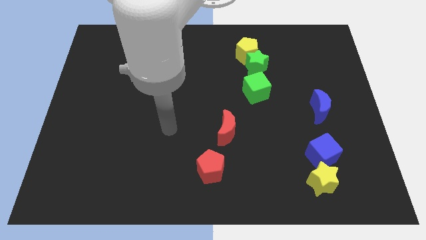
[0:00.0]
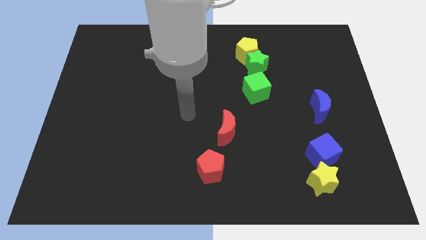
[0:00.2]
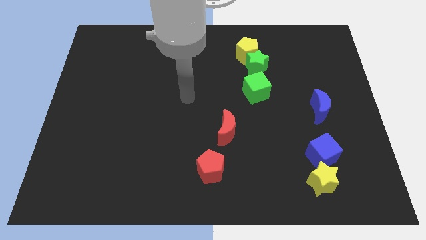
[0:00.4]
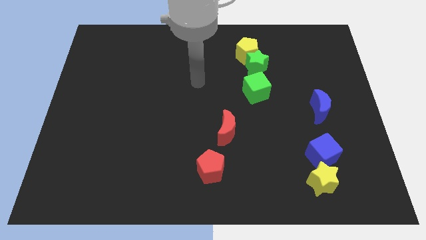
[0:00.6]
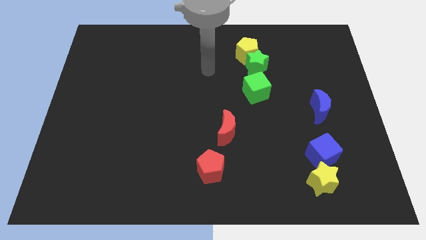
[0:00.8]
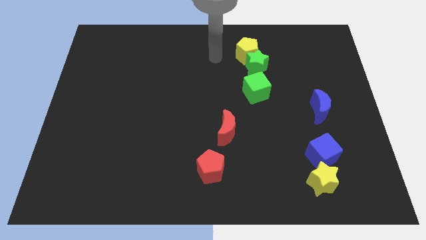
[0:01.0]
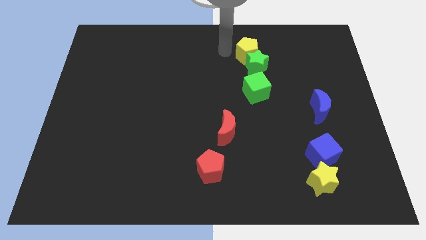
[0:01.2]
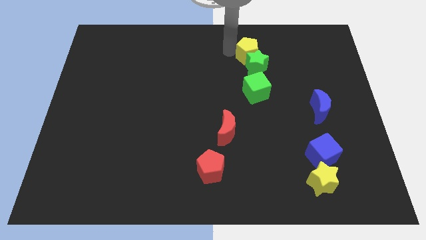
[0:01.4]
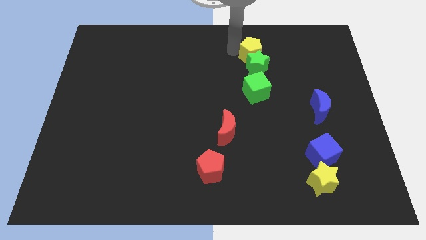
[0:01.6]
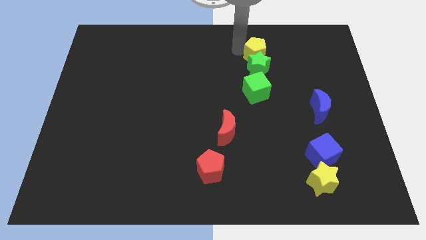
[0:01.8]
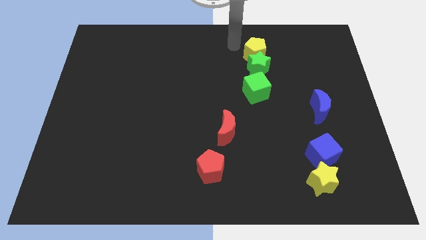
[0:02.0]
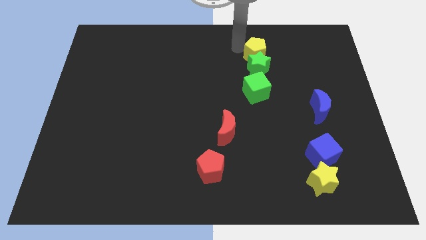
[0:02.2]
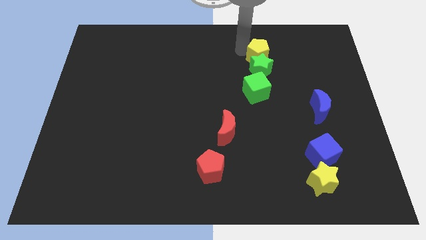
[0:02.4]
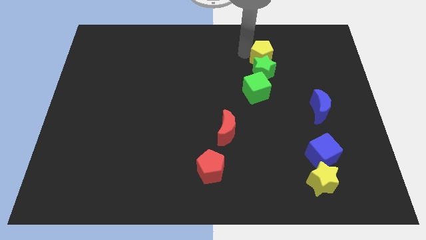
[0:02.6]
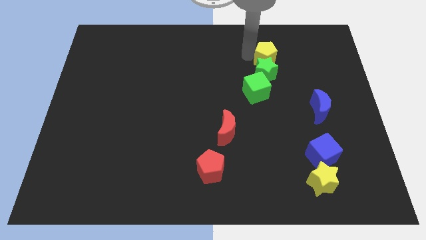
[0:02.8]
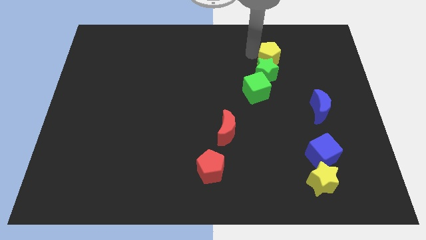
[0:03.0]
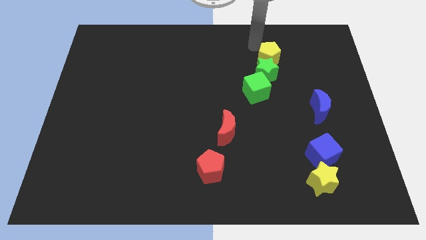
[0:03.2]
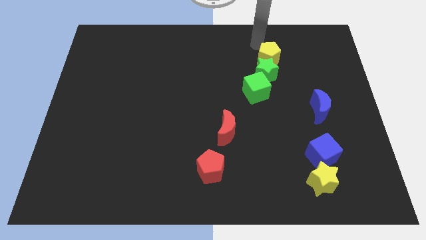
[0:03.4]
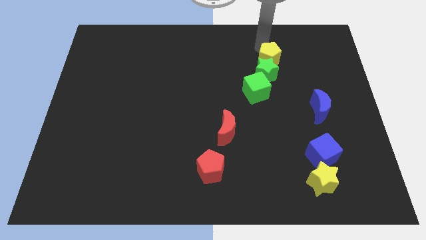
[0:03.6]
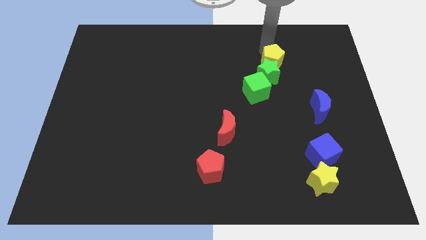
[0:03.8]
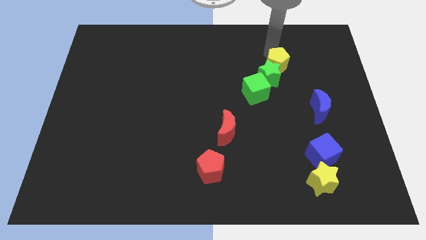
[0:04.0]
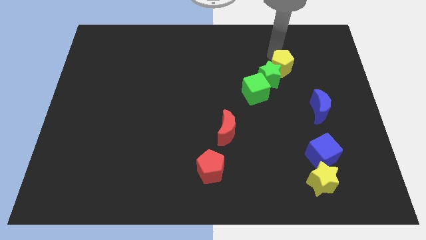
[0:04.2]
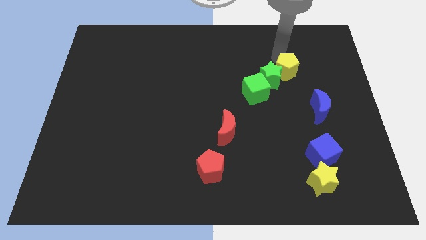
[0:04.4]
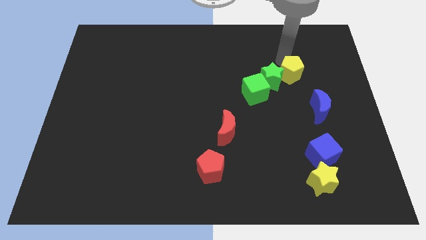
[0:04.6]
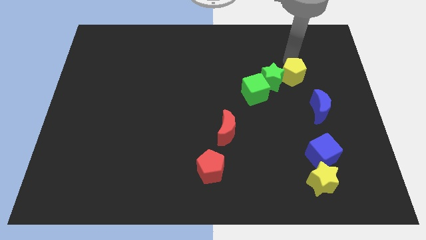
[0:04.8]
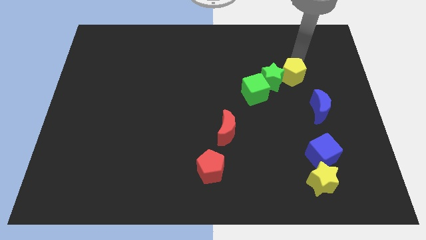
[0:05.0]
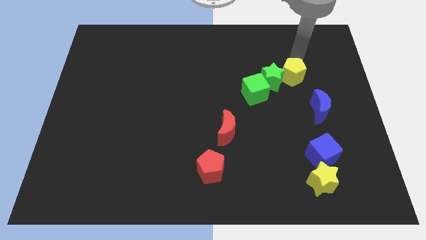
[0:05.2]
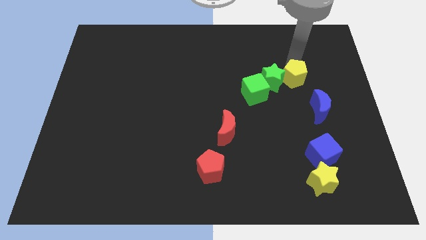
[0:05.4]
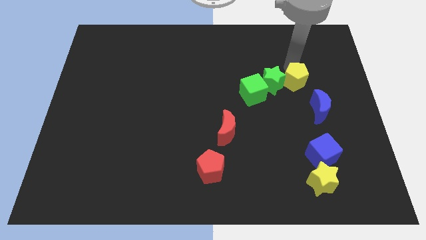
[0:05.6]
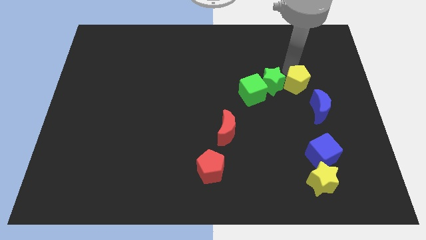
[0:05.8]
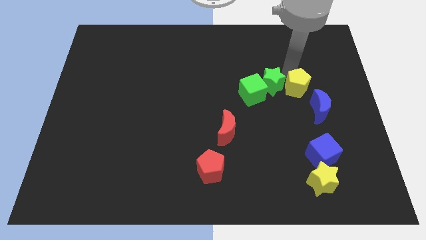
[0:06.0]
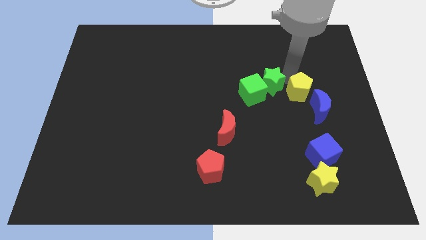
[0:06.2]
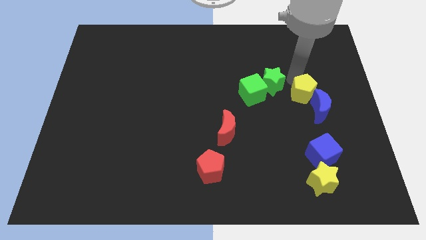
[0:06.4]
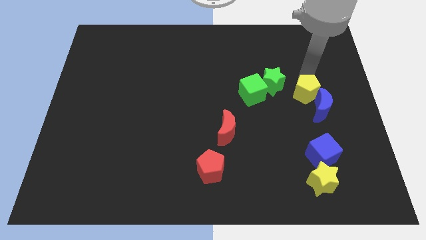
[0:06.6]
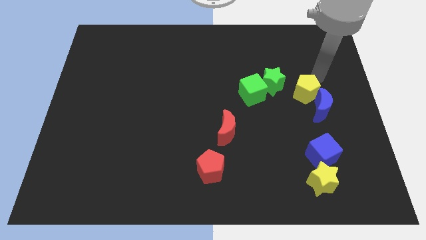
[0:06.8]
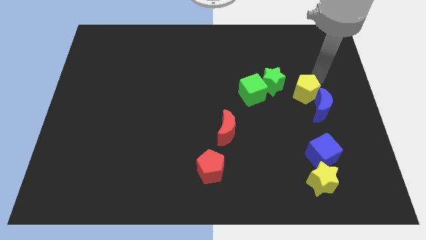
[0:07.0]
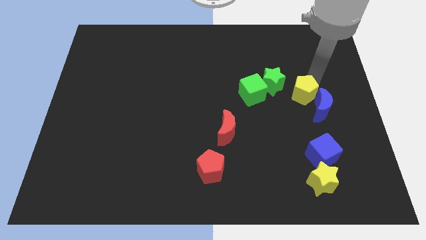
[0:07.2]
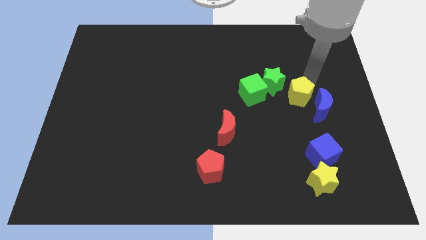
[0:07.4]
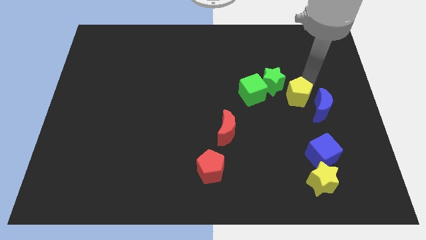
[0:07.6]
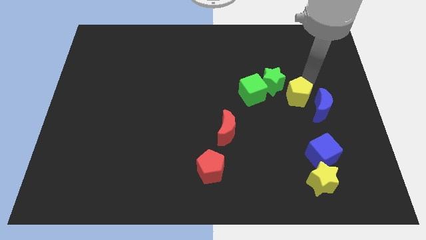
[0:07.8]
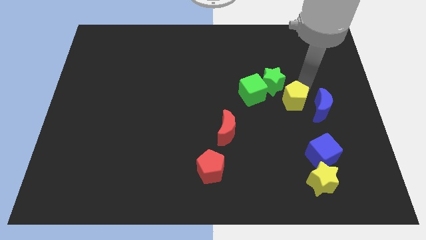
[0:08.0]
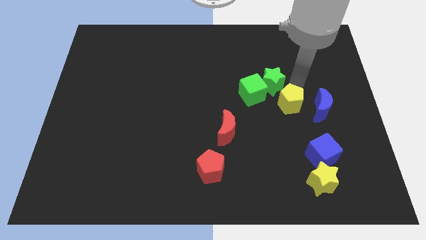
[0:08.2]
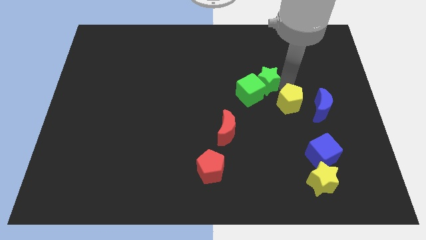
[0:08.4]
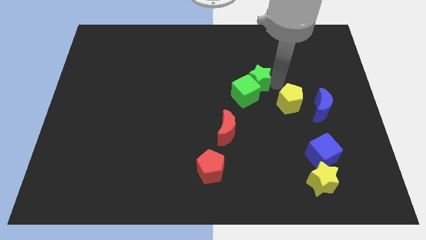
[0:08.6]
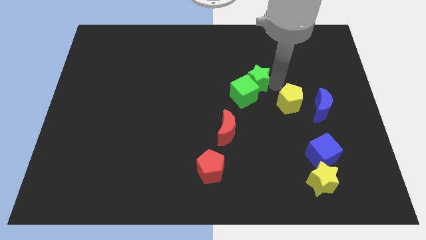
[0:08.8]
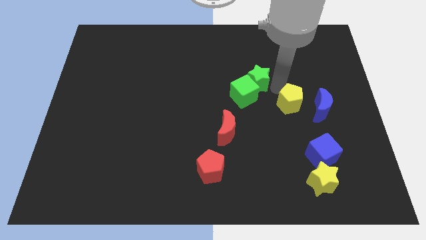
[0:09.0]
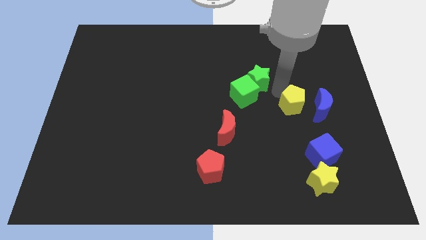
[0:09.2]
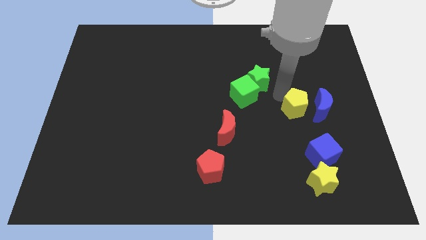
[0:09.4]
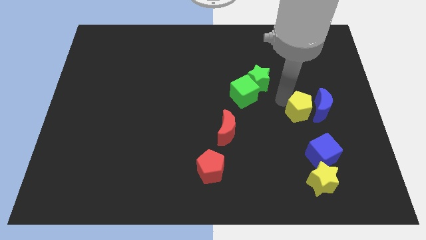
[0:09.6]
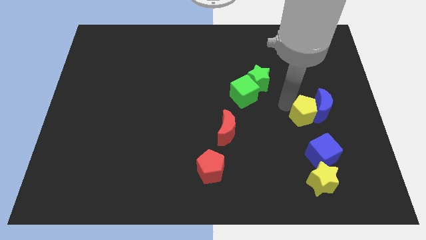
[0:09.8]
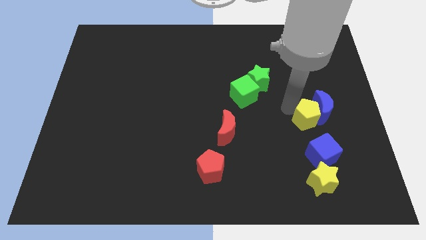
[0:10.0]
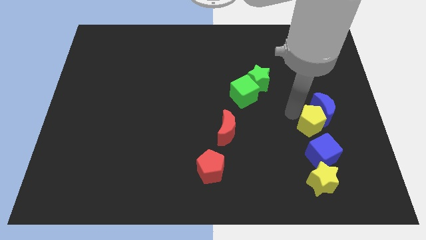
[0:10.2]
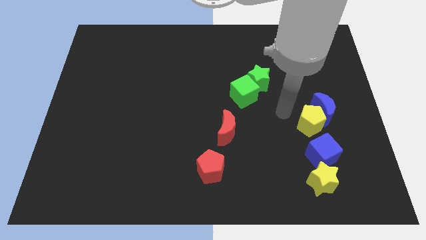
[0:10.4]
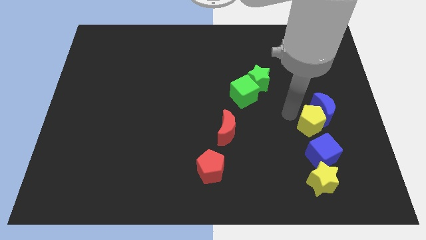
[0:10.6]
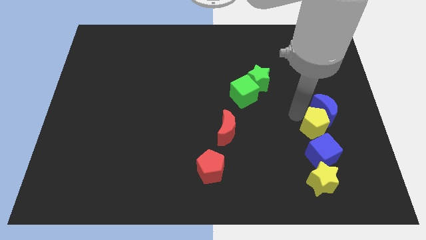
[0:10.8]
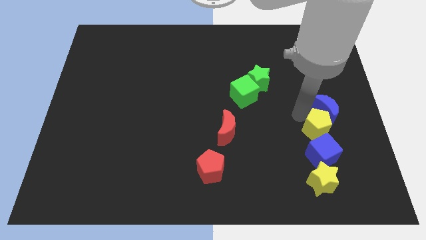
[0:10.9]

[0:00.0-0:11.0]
slide the yellow pentagon diagonally up and to the right of the blue cube

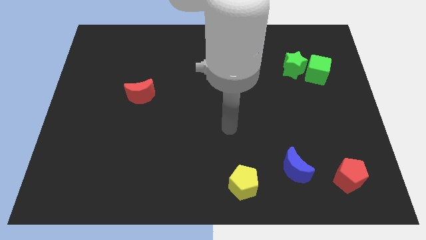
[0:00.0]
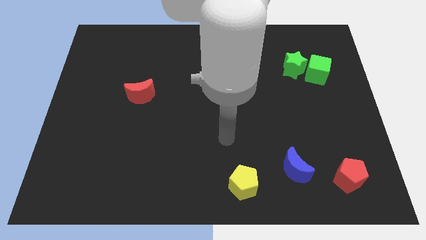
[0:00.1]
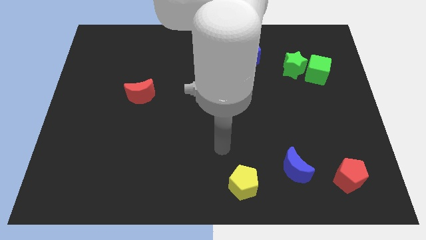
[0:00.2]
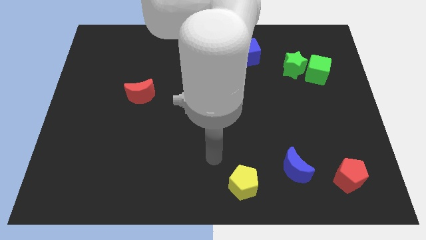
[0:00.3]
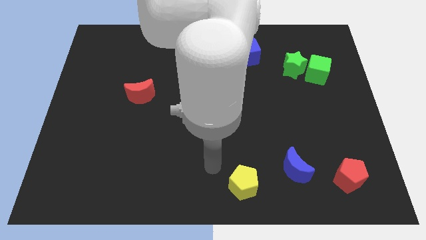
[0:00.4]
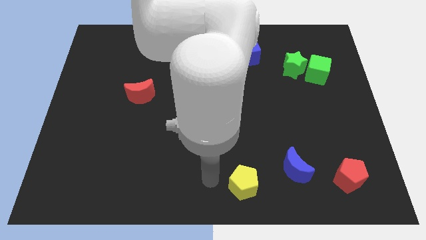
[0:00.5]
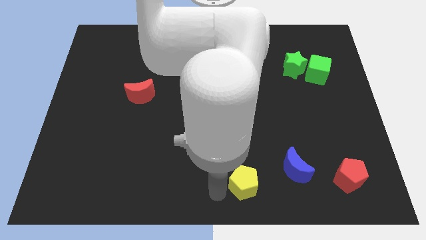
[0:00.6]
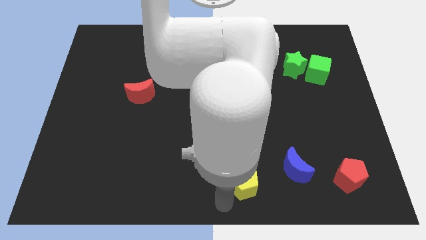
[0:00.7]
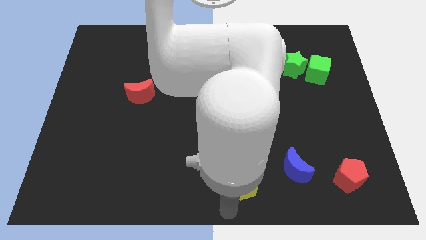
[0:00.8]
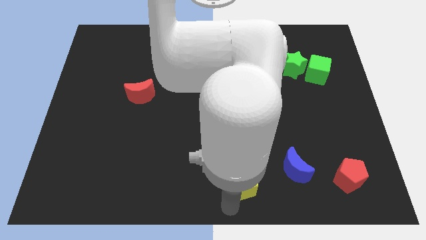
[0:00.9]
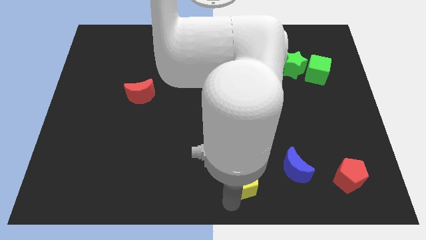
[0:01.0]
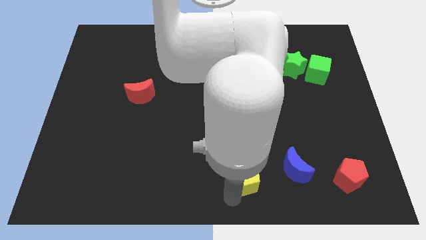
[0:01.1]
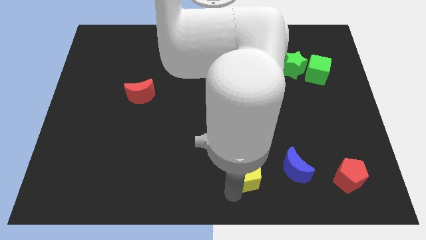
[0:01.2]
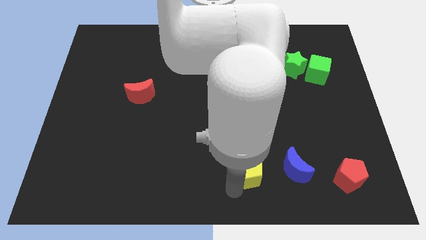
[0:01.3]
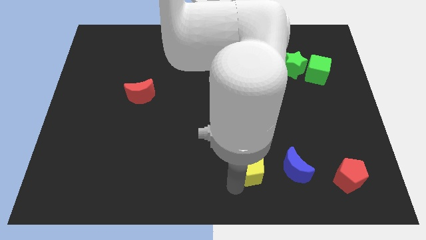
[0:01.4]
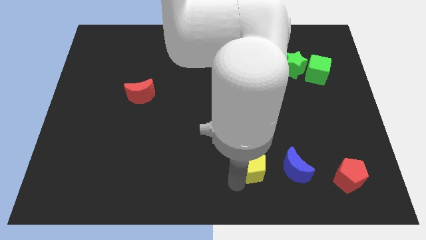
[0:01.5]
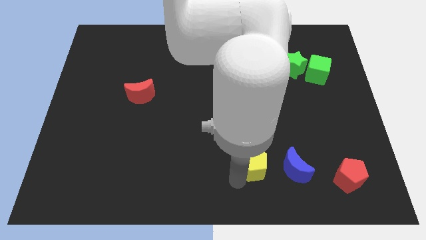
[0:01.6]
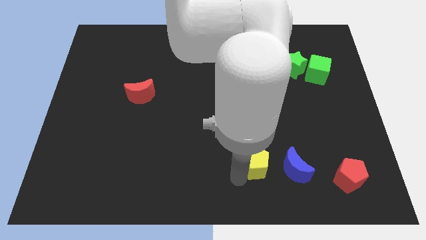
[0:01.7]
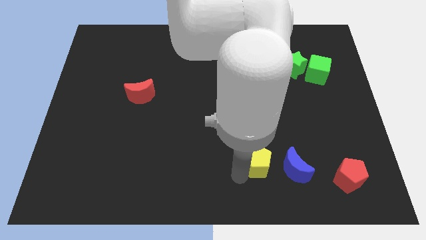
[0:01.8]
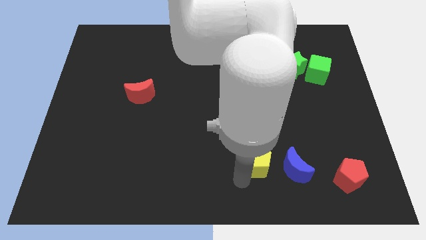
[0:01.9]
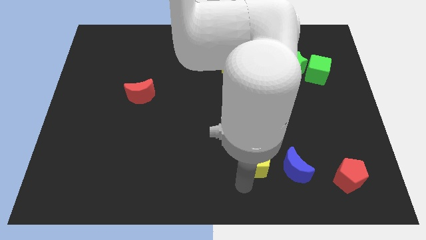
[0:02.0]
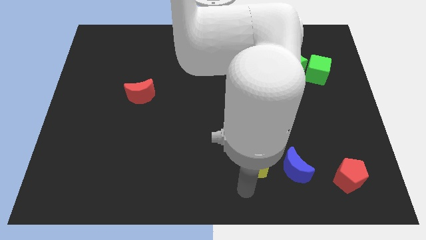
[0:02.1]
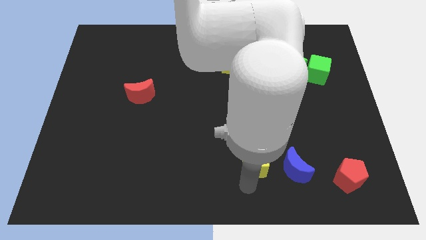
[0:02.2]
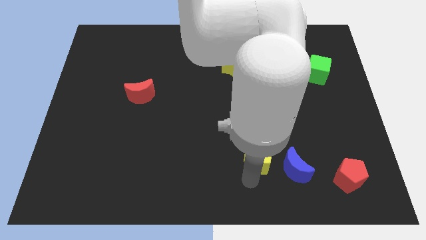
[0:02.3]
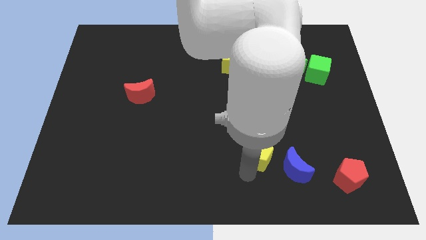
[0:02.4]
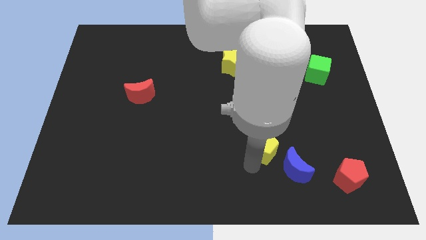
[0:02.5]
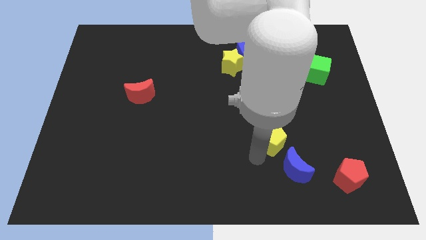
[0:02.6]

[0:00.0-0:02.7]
put the yellow pentagon to the top side of the blue moon
